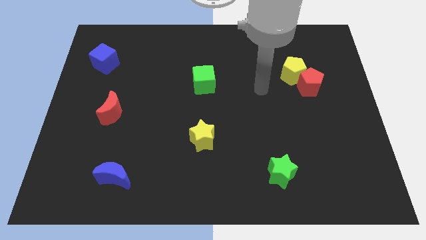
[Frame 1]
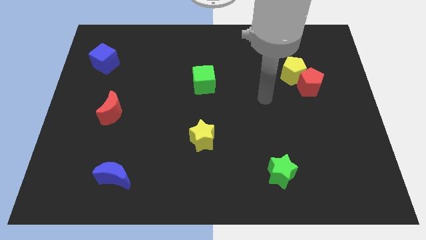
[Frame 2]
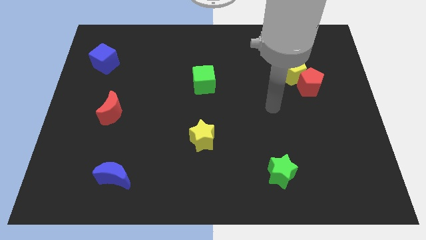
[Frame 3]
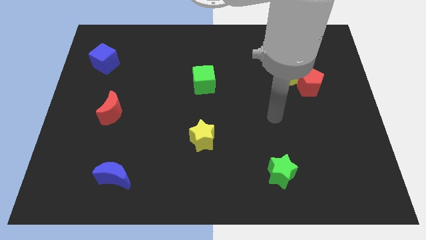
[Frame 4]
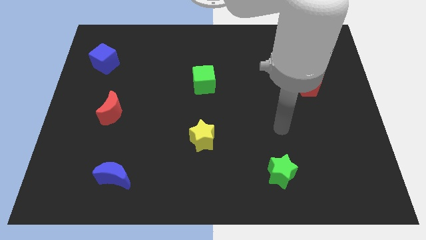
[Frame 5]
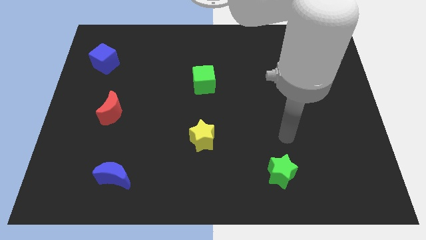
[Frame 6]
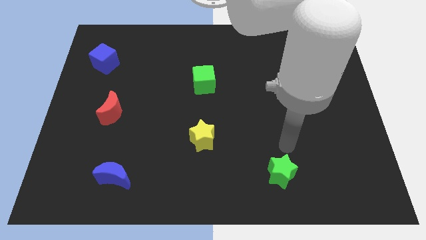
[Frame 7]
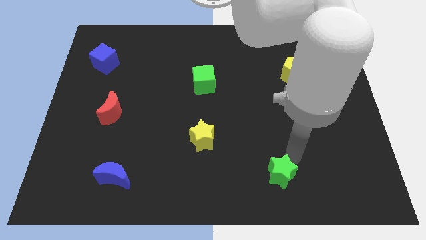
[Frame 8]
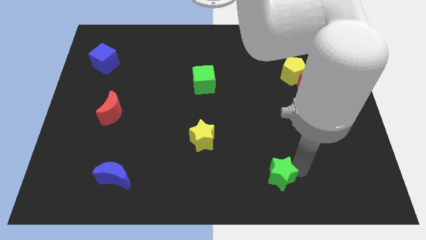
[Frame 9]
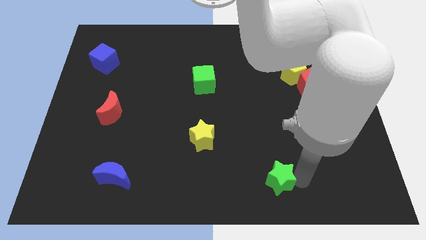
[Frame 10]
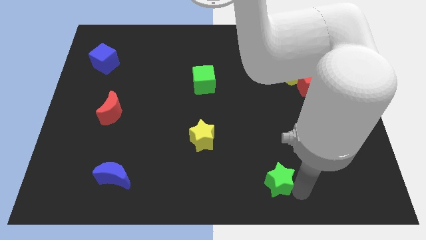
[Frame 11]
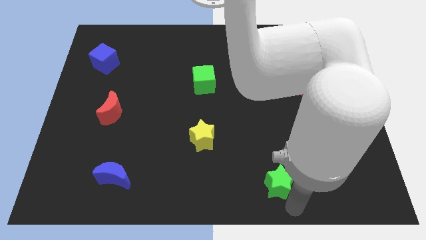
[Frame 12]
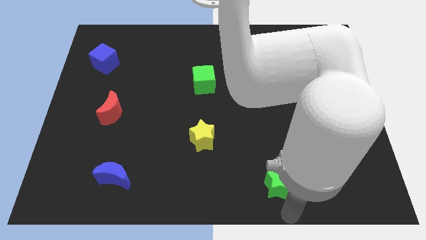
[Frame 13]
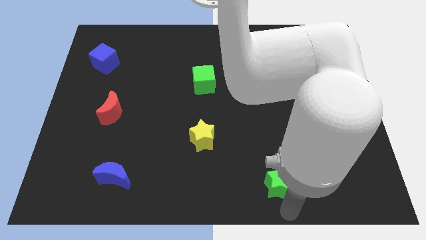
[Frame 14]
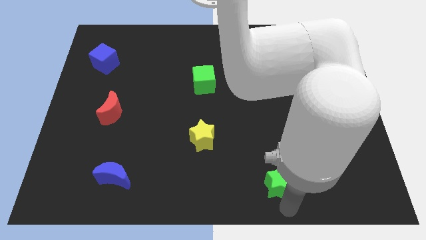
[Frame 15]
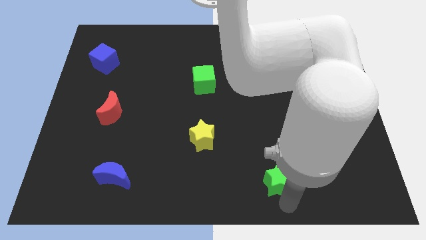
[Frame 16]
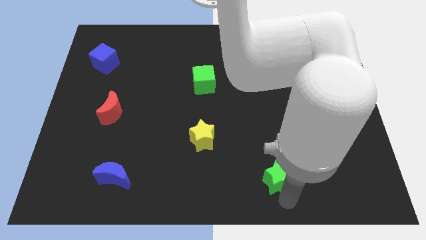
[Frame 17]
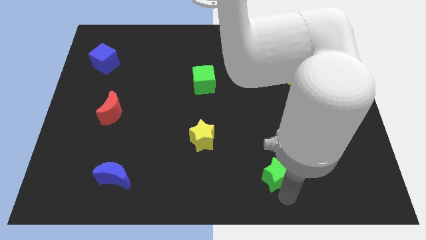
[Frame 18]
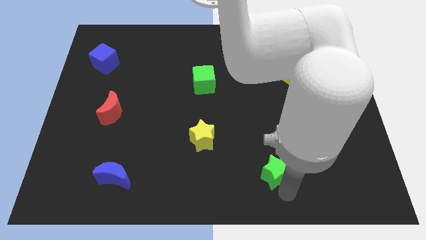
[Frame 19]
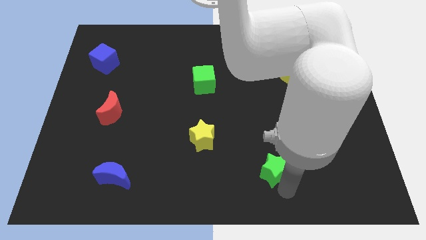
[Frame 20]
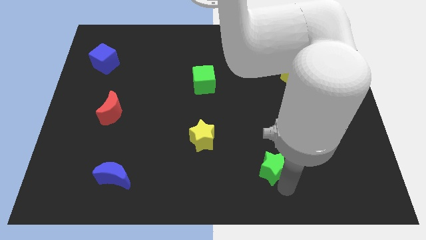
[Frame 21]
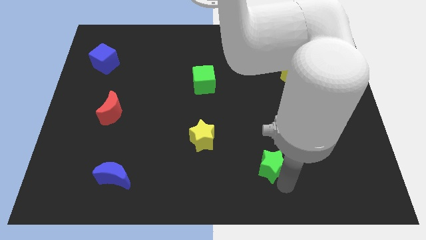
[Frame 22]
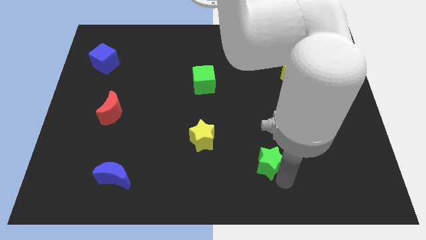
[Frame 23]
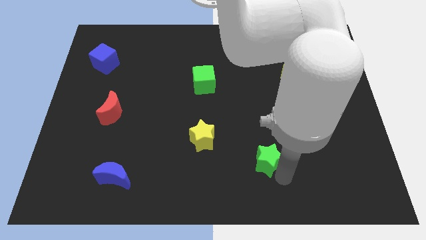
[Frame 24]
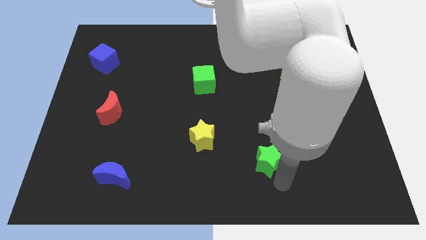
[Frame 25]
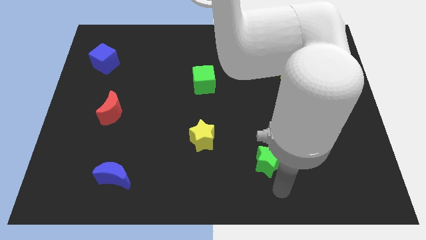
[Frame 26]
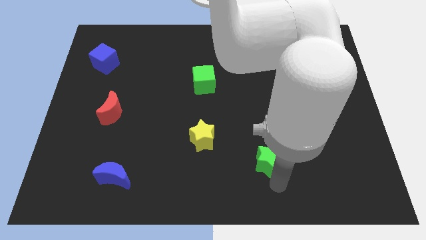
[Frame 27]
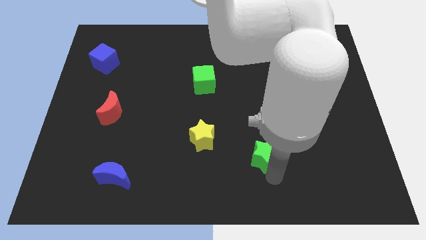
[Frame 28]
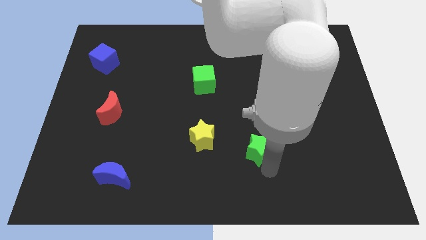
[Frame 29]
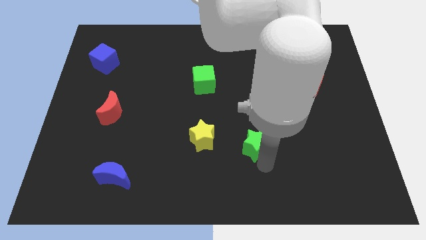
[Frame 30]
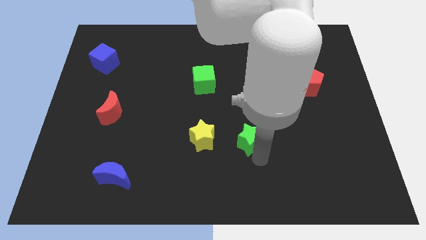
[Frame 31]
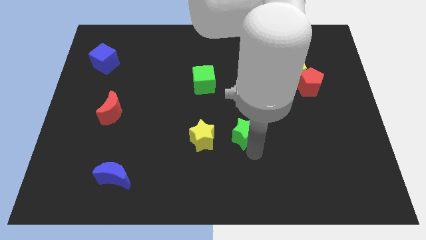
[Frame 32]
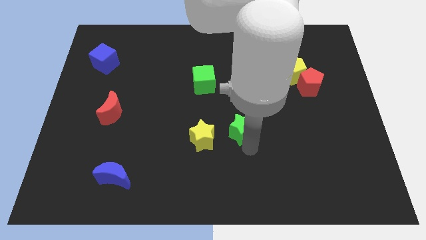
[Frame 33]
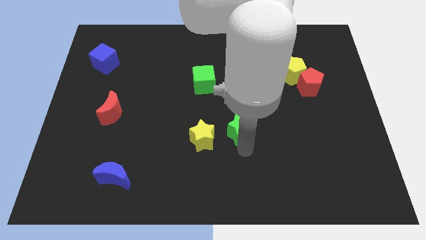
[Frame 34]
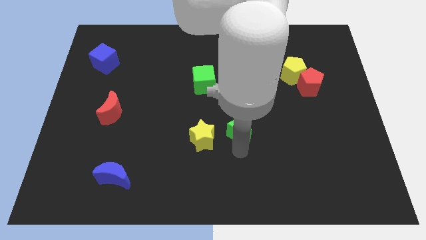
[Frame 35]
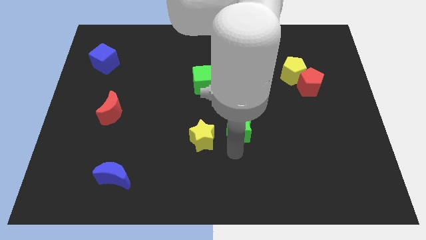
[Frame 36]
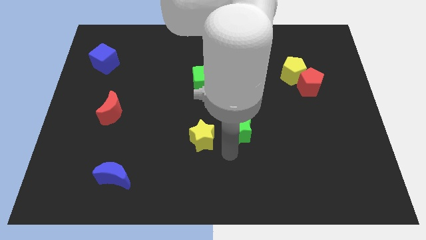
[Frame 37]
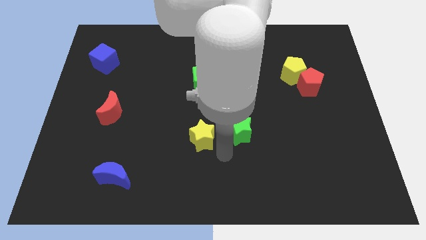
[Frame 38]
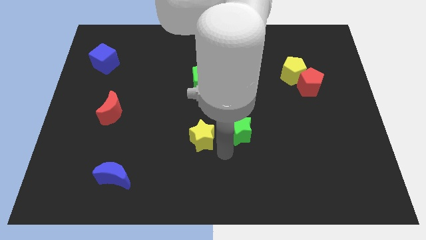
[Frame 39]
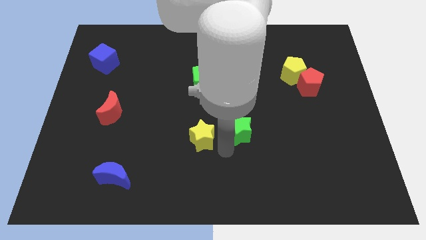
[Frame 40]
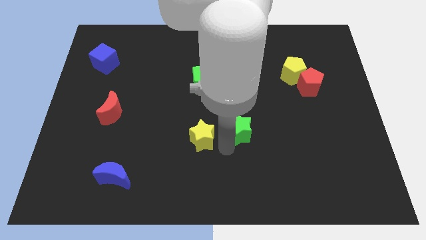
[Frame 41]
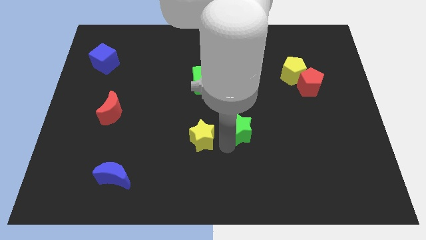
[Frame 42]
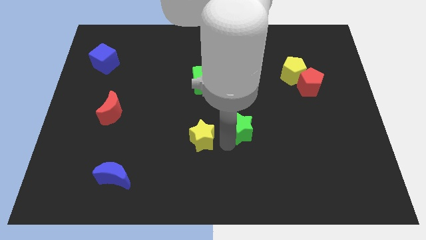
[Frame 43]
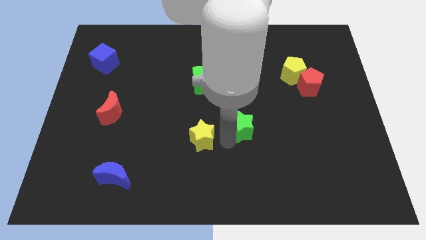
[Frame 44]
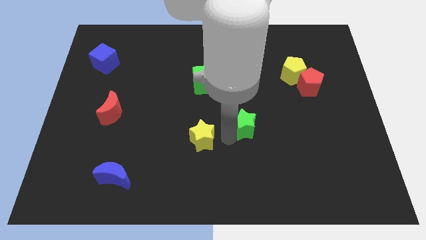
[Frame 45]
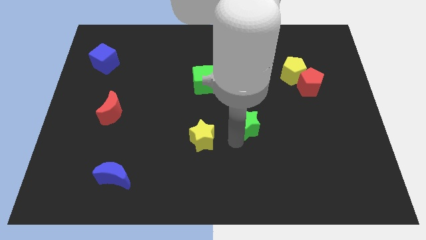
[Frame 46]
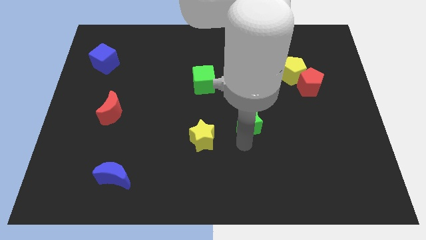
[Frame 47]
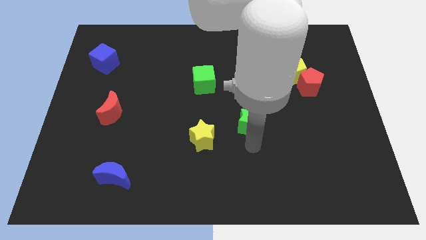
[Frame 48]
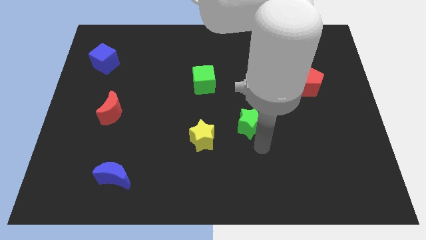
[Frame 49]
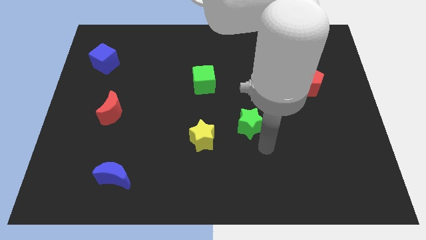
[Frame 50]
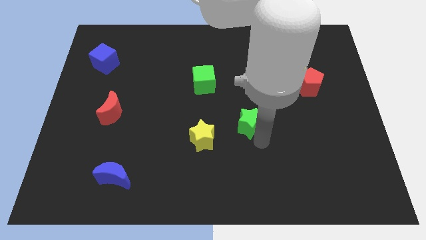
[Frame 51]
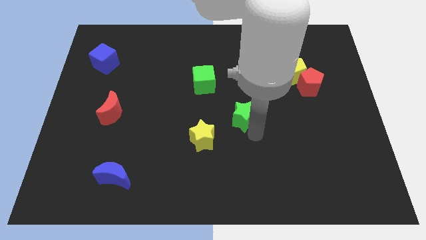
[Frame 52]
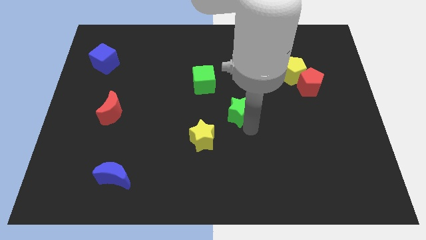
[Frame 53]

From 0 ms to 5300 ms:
move the green star to the bottom right of the green cube

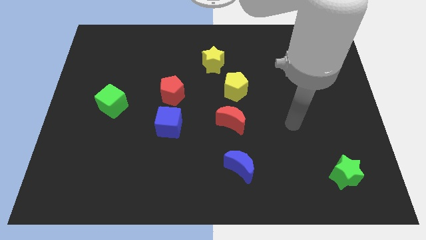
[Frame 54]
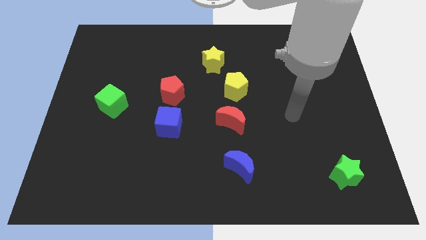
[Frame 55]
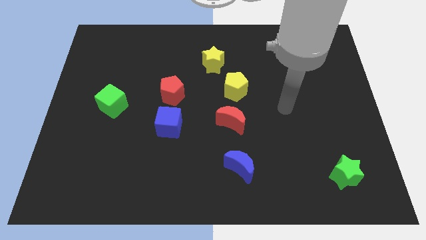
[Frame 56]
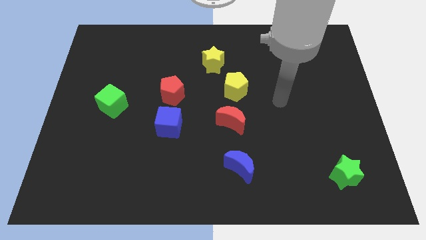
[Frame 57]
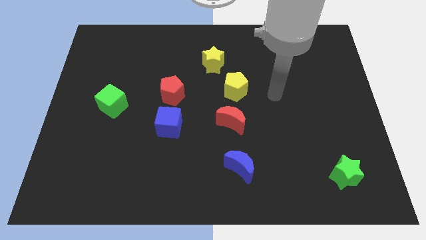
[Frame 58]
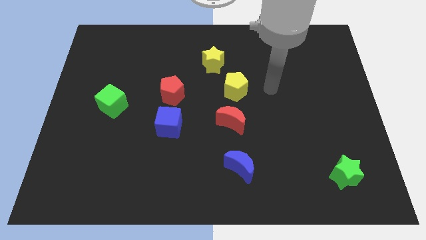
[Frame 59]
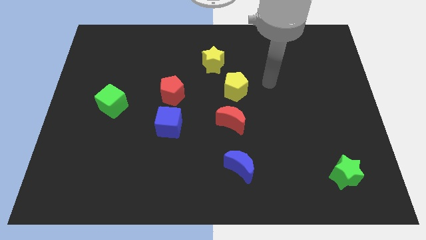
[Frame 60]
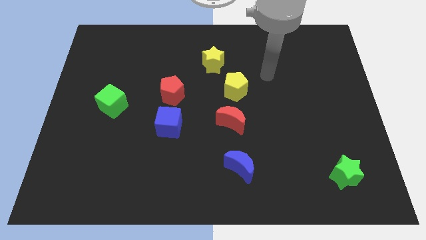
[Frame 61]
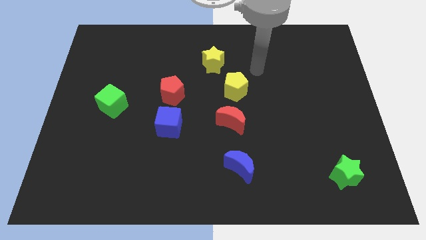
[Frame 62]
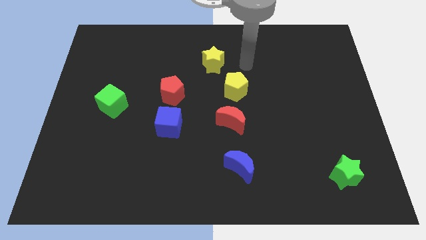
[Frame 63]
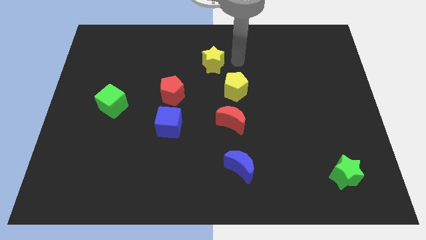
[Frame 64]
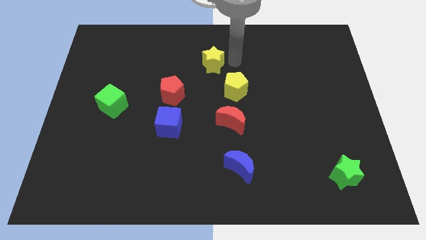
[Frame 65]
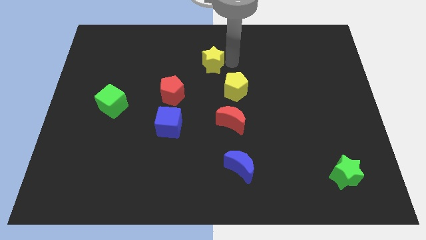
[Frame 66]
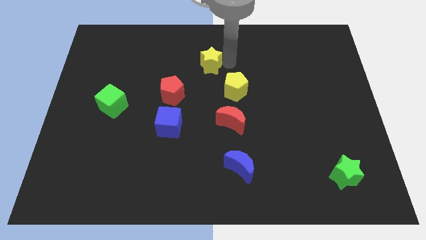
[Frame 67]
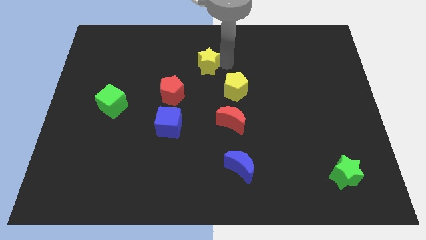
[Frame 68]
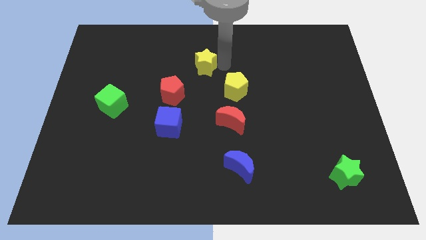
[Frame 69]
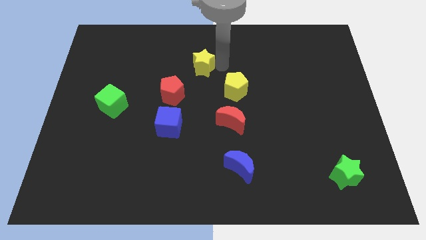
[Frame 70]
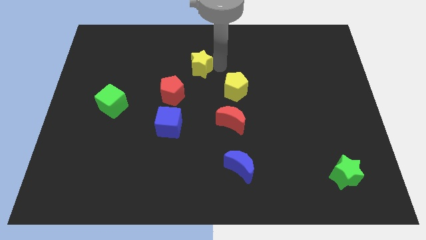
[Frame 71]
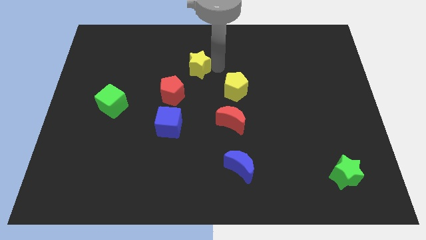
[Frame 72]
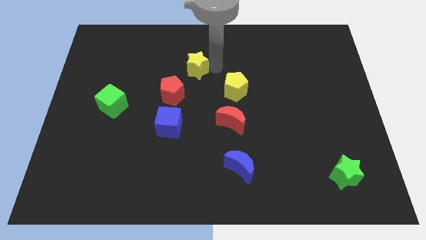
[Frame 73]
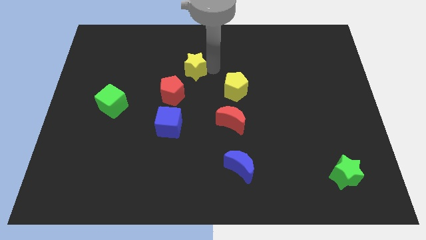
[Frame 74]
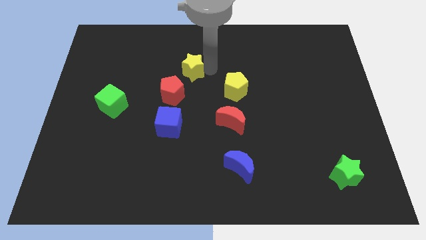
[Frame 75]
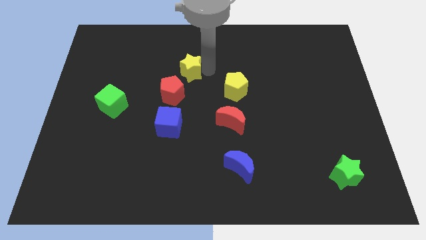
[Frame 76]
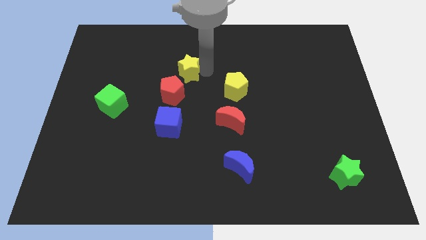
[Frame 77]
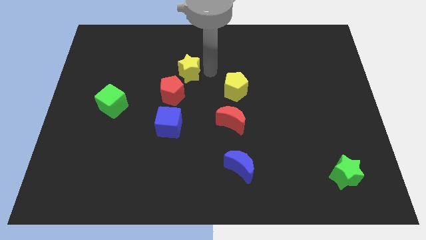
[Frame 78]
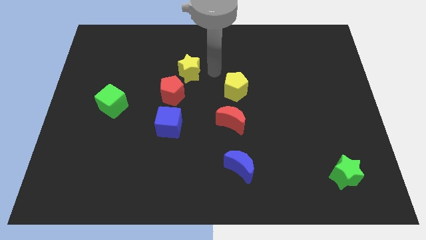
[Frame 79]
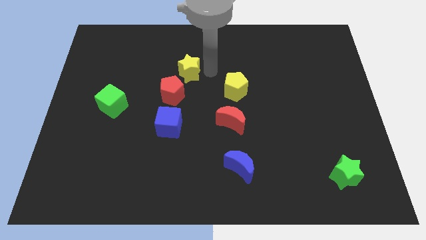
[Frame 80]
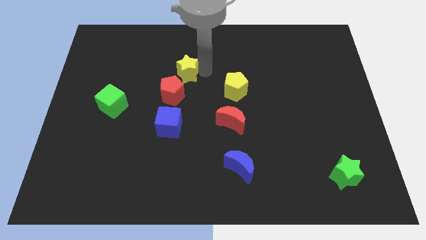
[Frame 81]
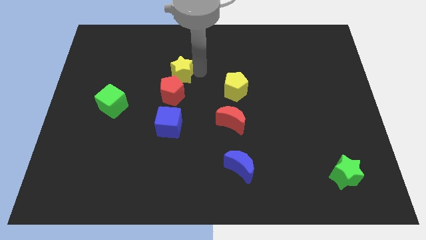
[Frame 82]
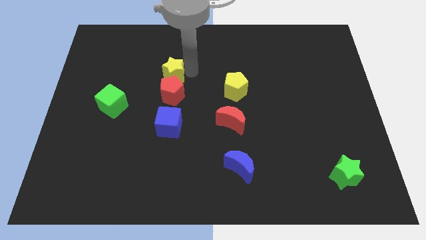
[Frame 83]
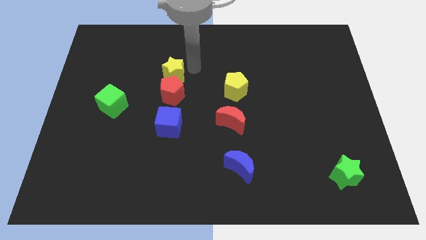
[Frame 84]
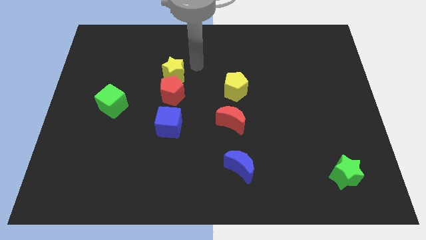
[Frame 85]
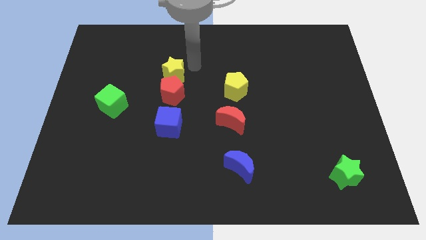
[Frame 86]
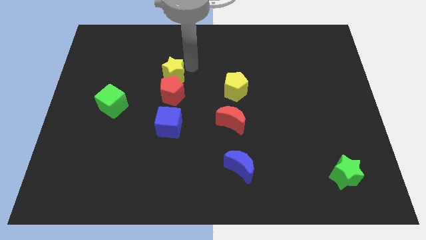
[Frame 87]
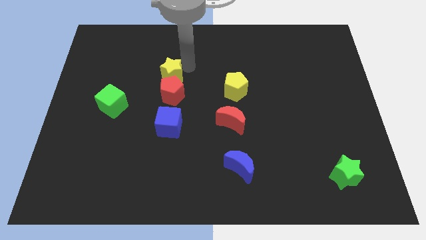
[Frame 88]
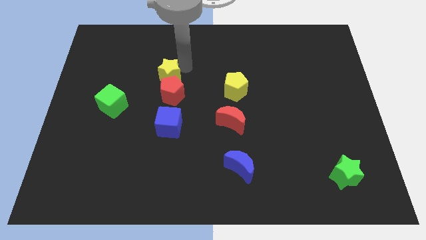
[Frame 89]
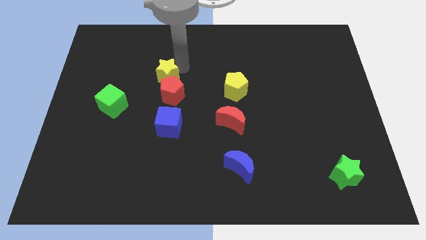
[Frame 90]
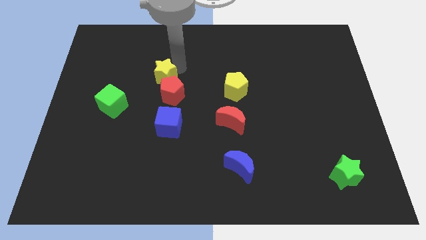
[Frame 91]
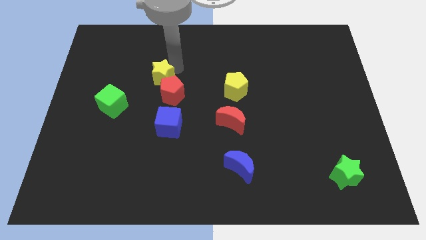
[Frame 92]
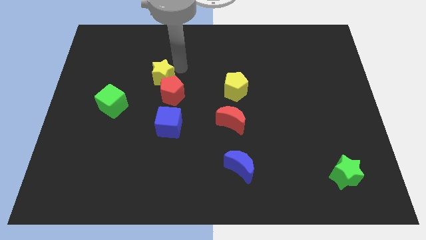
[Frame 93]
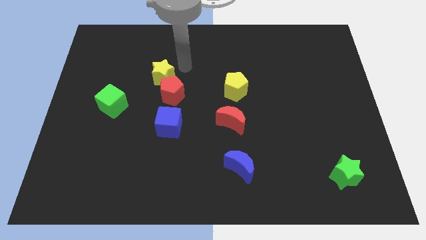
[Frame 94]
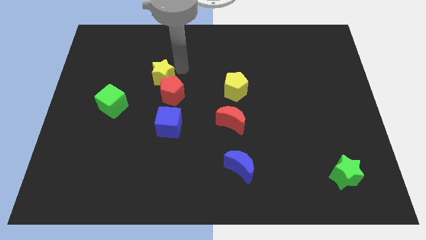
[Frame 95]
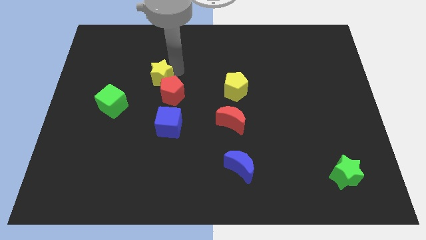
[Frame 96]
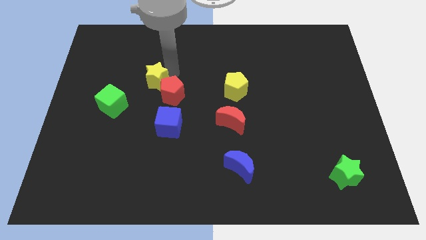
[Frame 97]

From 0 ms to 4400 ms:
move the yellow star to the left of the red pentagon
